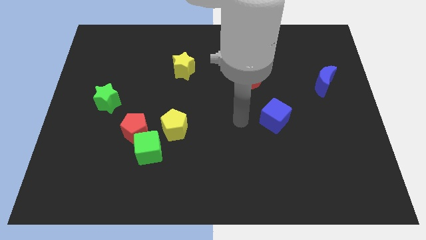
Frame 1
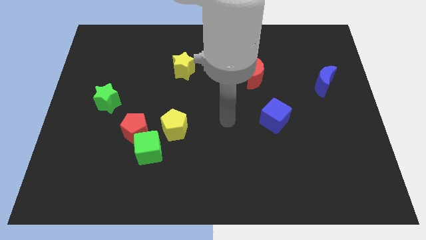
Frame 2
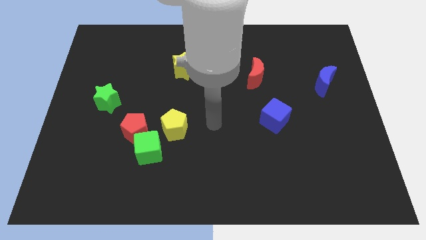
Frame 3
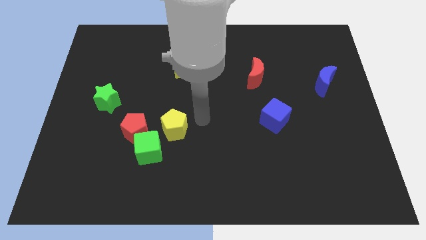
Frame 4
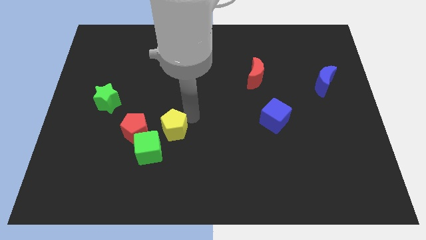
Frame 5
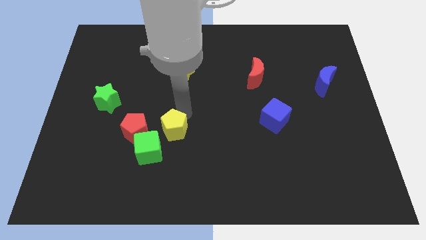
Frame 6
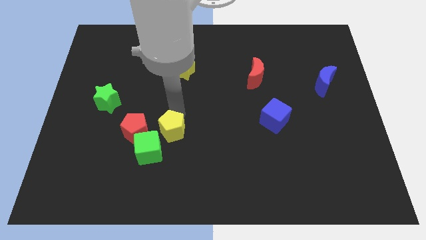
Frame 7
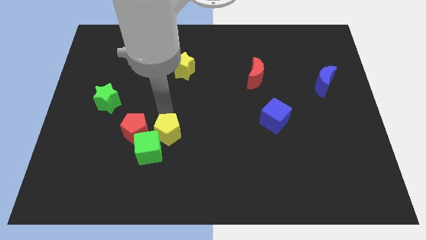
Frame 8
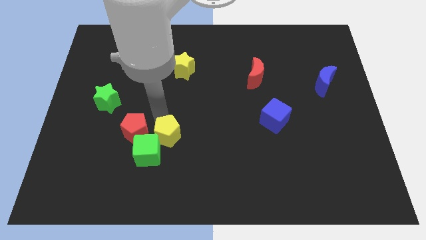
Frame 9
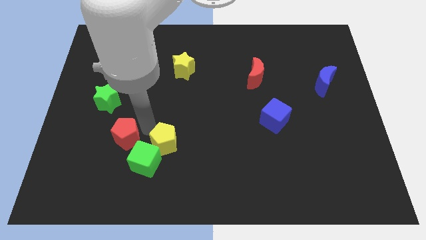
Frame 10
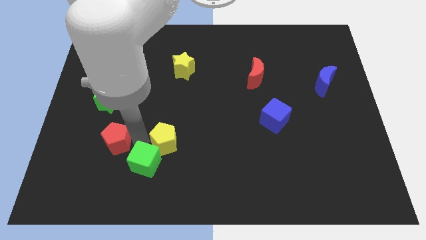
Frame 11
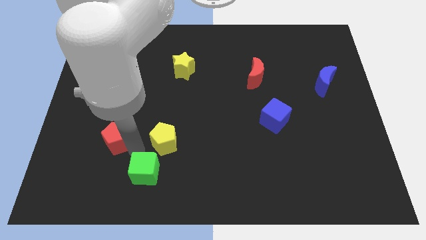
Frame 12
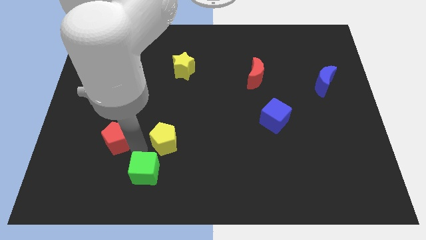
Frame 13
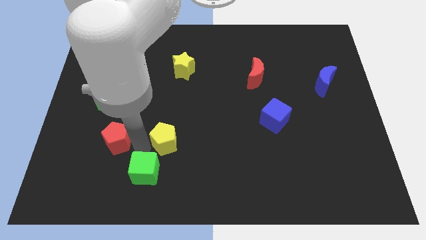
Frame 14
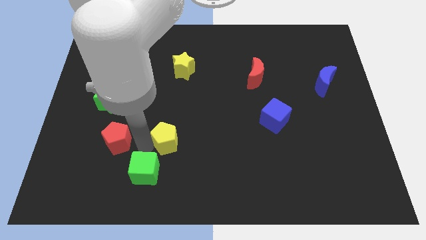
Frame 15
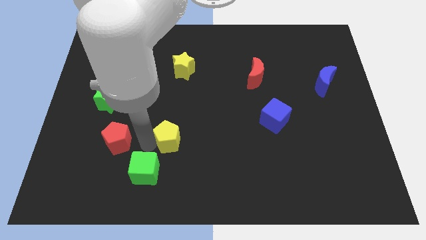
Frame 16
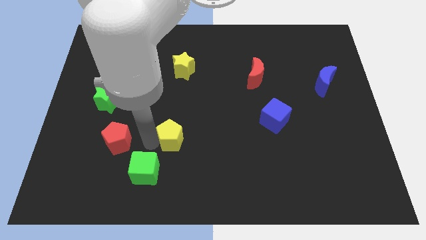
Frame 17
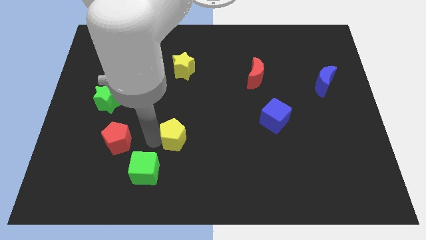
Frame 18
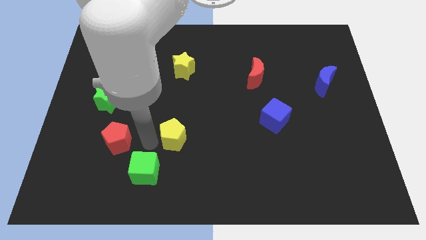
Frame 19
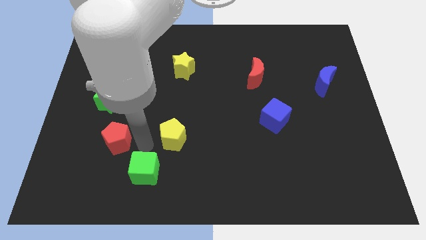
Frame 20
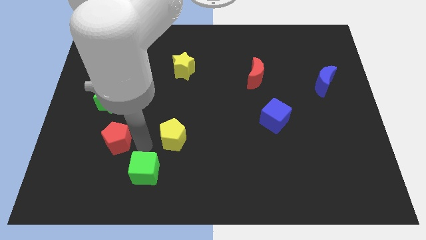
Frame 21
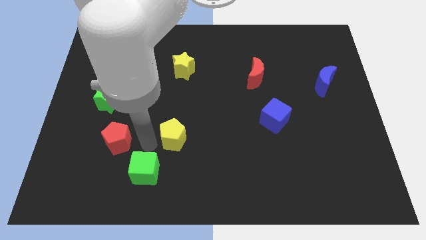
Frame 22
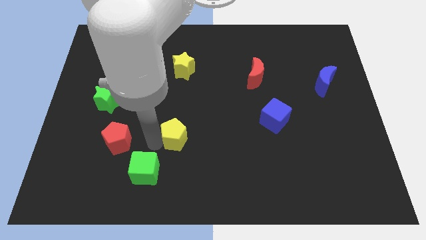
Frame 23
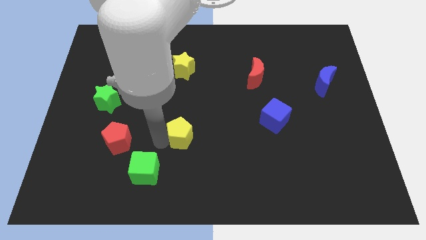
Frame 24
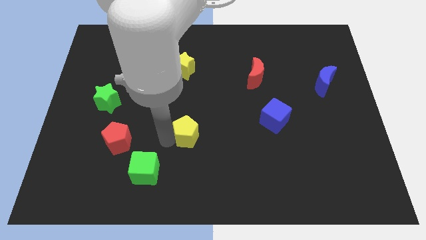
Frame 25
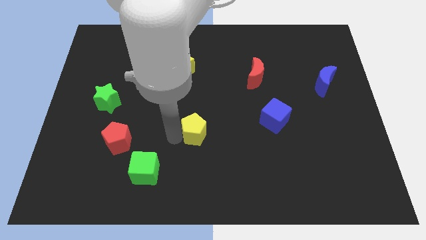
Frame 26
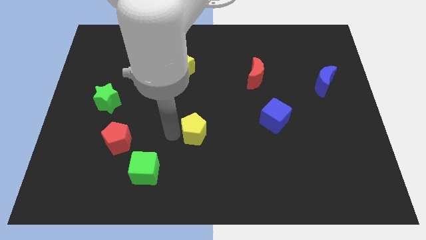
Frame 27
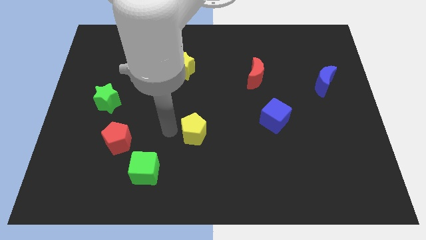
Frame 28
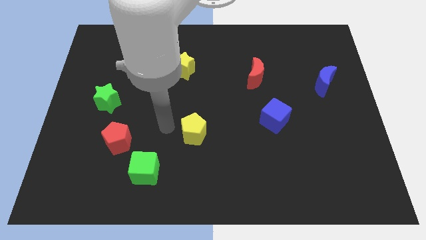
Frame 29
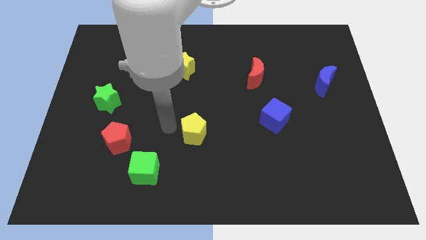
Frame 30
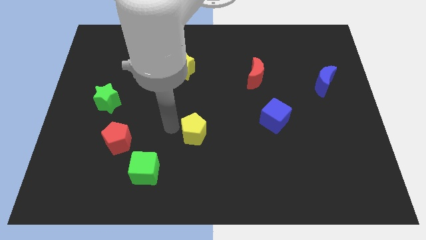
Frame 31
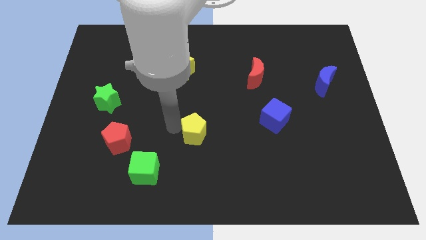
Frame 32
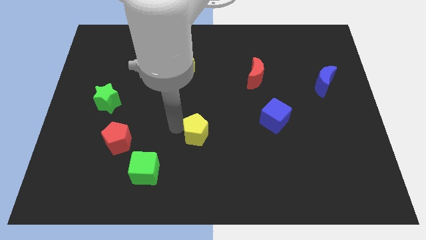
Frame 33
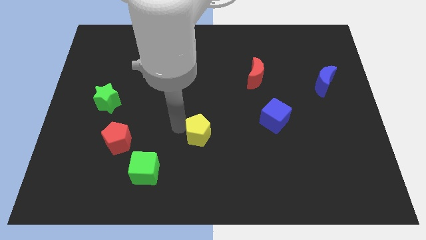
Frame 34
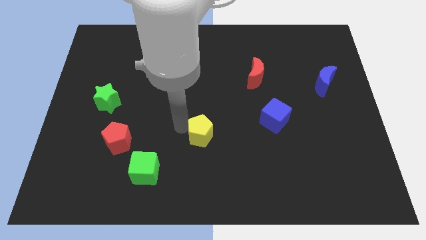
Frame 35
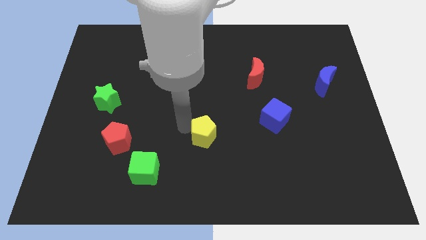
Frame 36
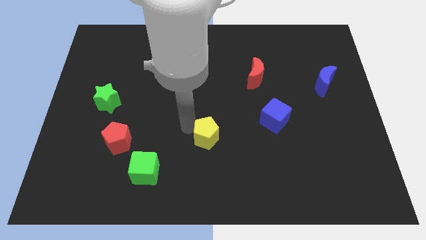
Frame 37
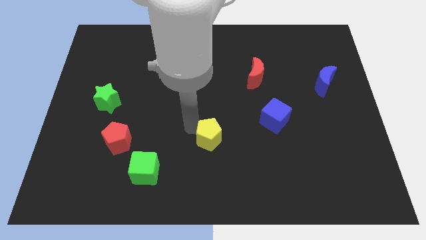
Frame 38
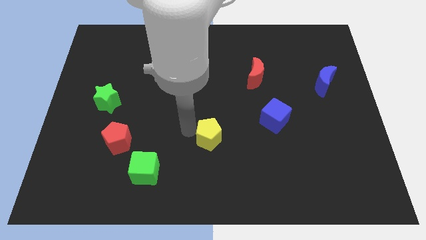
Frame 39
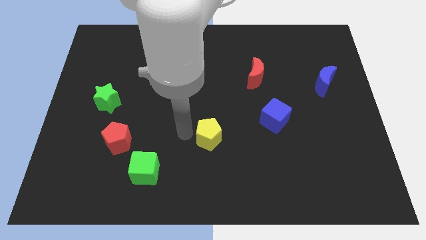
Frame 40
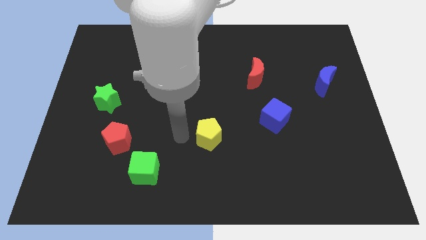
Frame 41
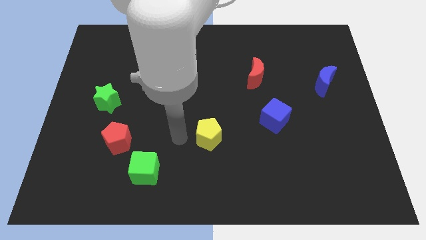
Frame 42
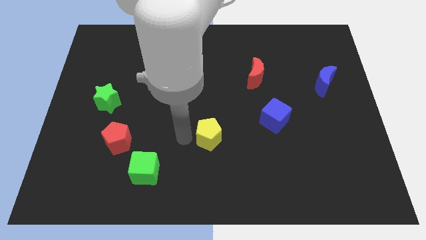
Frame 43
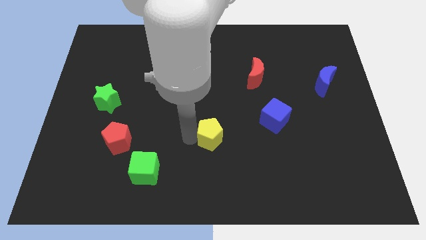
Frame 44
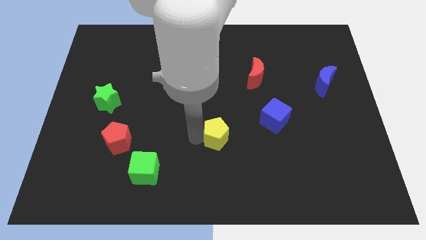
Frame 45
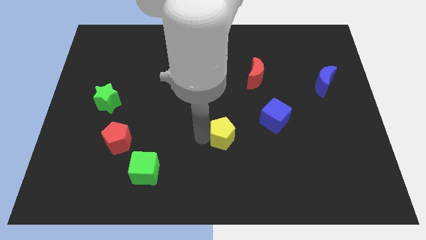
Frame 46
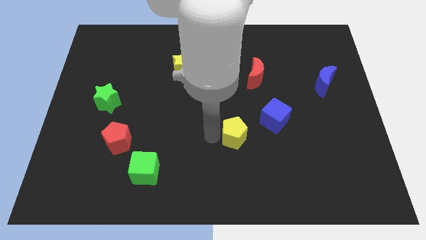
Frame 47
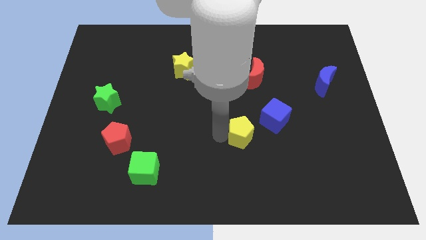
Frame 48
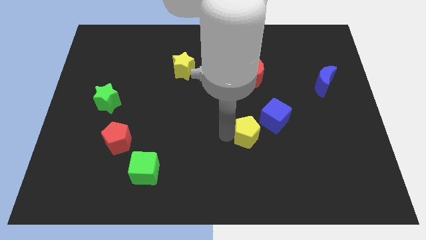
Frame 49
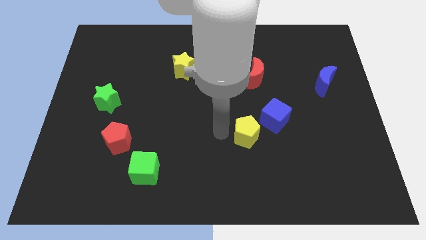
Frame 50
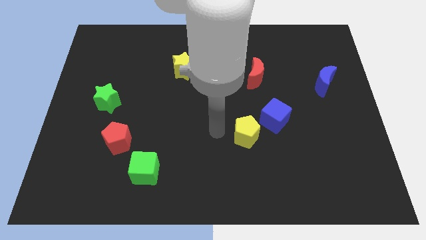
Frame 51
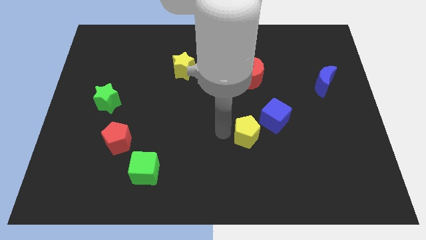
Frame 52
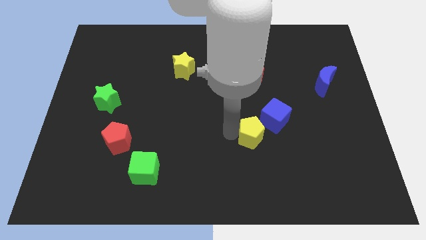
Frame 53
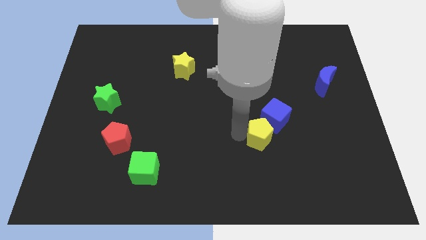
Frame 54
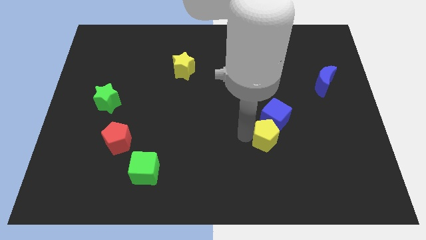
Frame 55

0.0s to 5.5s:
slide the yellow pentagon right

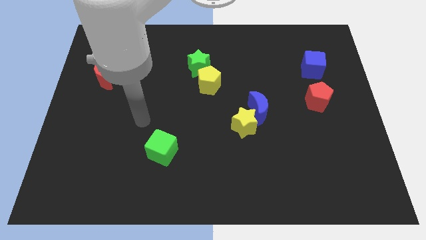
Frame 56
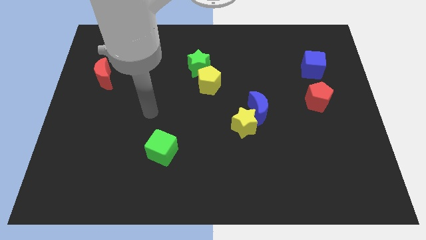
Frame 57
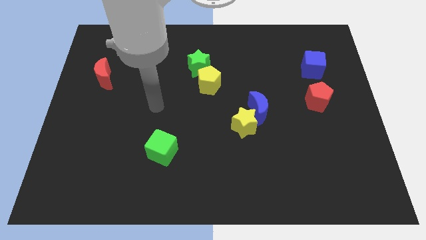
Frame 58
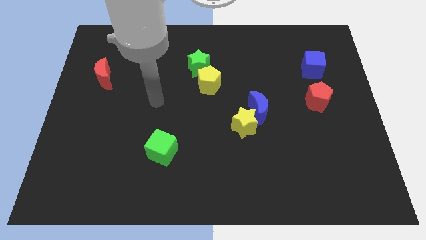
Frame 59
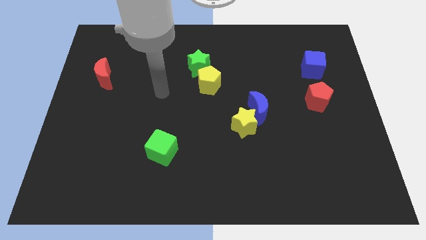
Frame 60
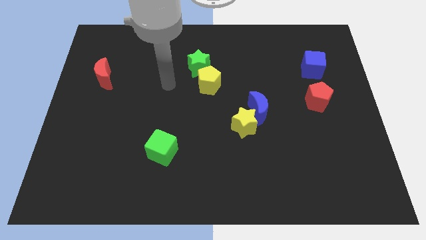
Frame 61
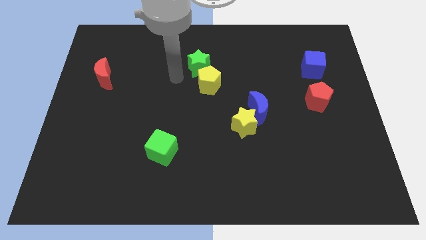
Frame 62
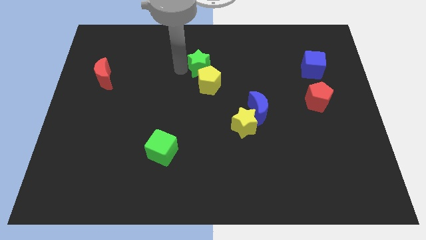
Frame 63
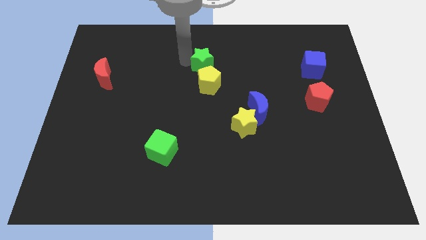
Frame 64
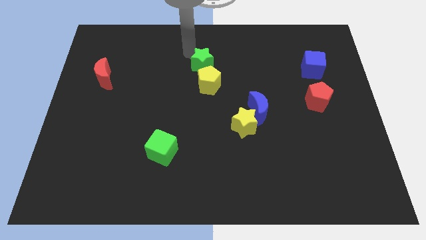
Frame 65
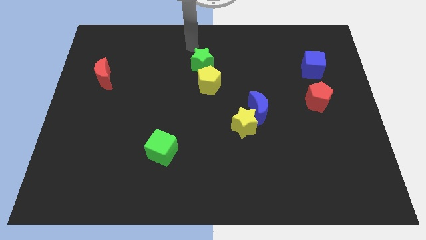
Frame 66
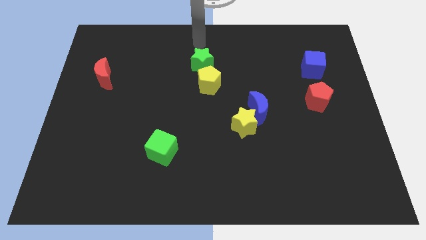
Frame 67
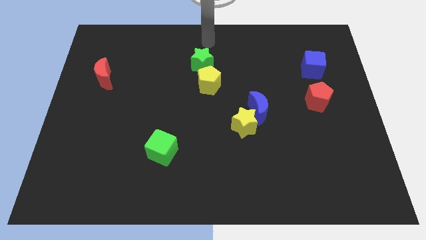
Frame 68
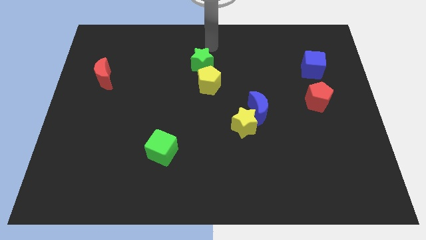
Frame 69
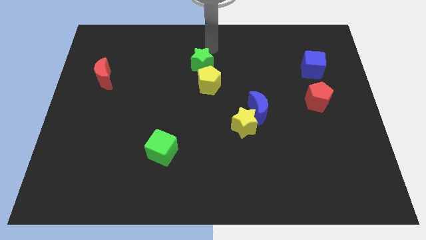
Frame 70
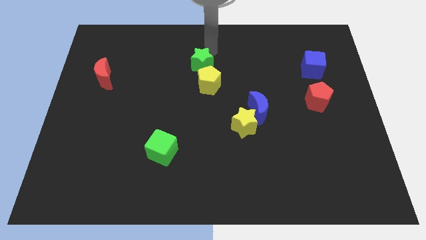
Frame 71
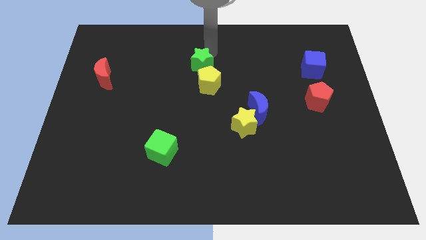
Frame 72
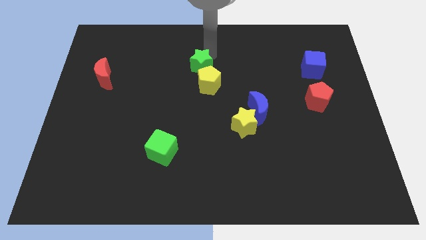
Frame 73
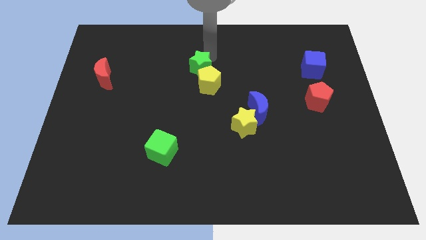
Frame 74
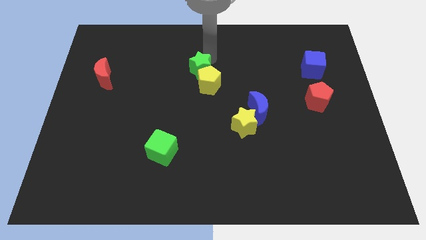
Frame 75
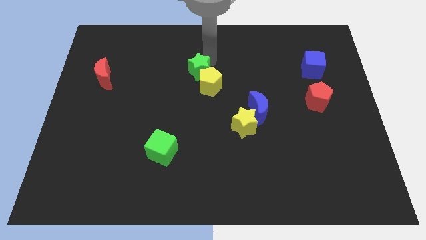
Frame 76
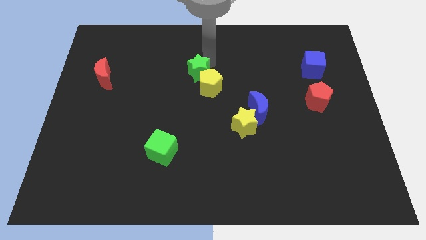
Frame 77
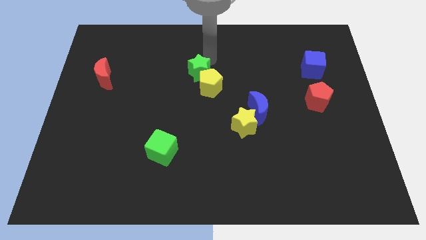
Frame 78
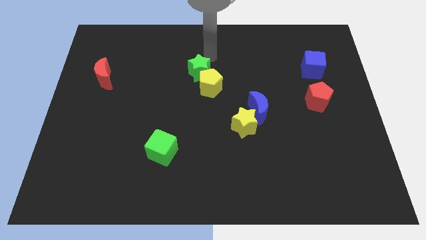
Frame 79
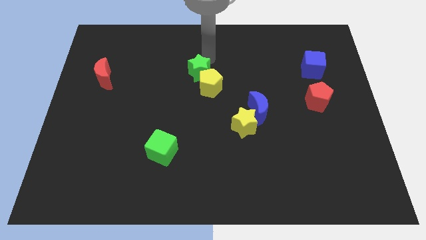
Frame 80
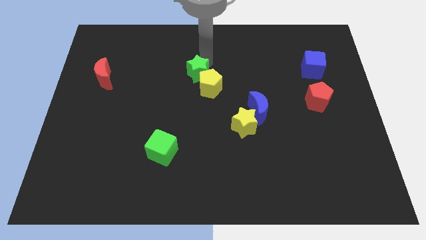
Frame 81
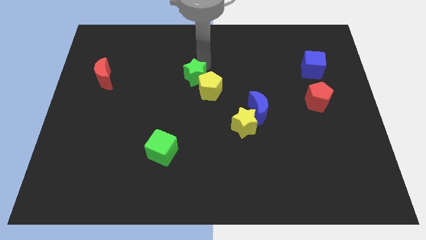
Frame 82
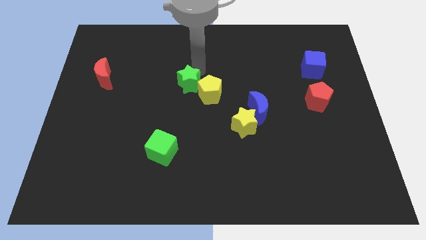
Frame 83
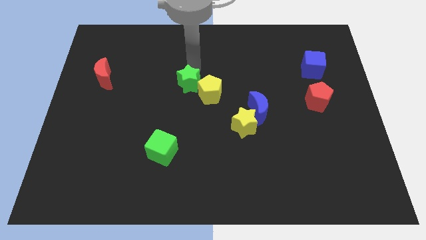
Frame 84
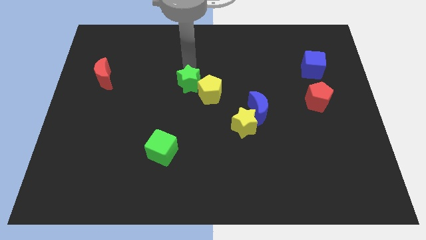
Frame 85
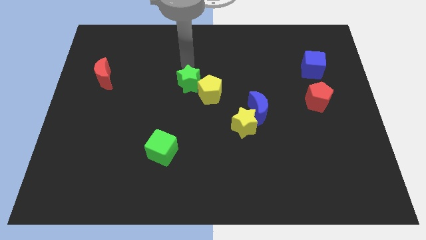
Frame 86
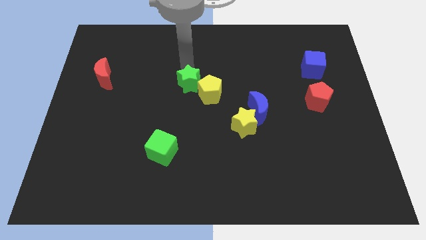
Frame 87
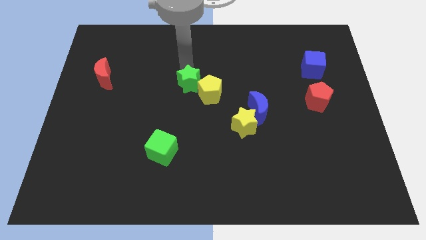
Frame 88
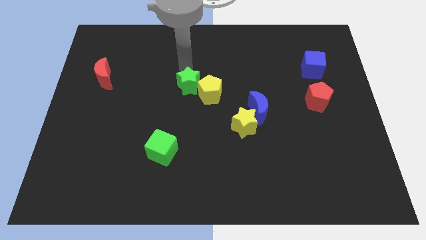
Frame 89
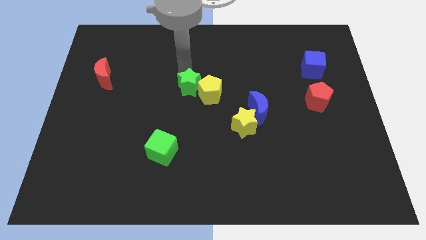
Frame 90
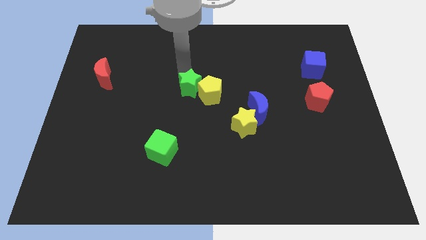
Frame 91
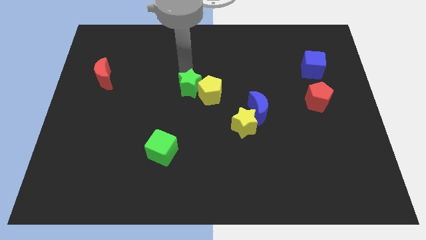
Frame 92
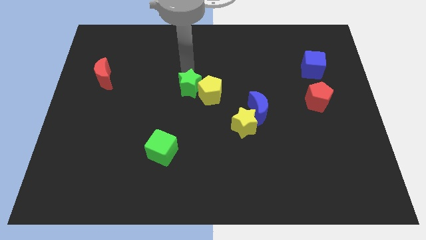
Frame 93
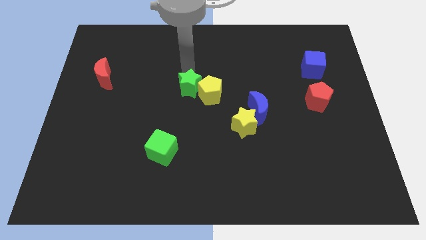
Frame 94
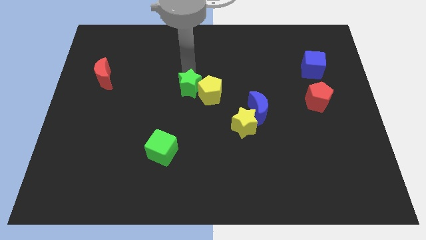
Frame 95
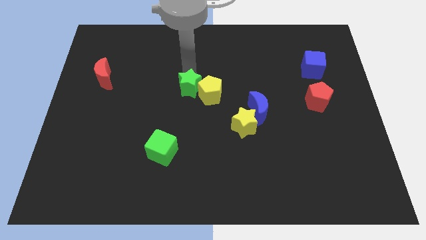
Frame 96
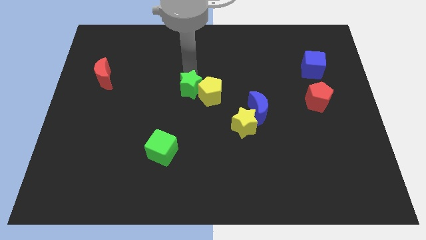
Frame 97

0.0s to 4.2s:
slightly push the green star downwards
